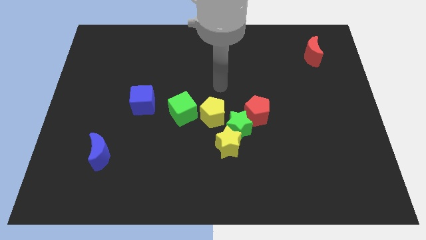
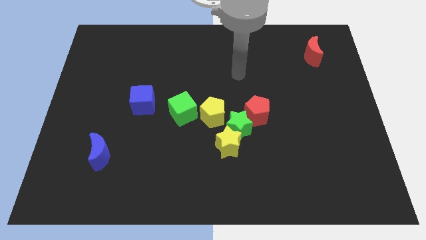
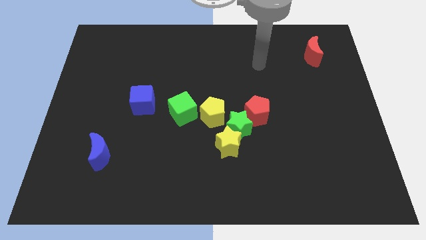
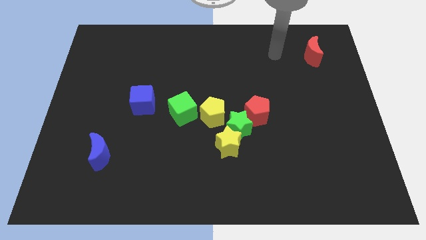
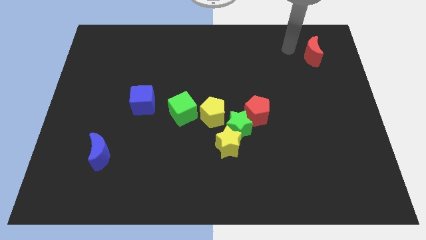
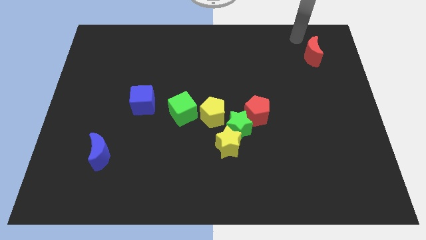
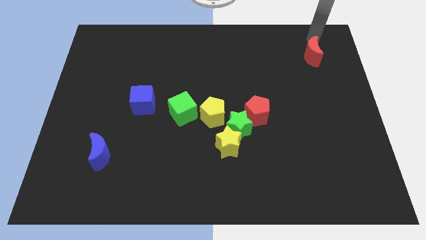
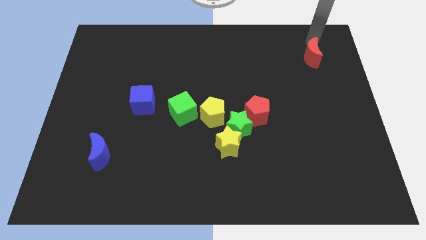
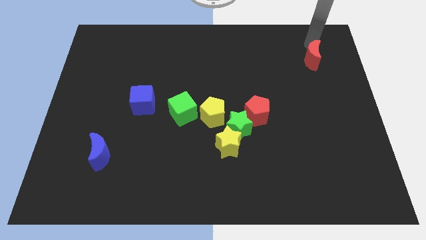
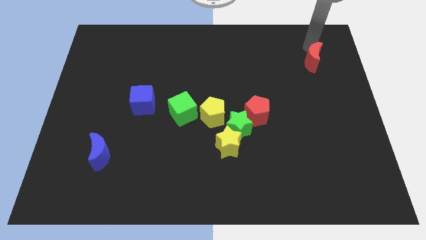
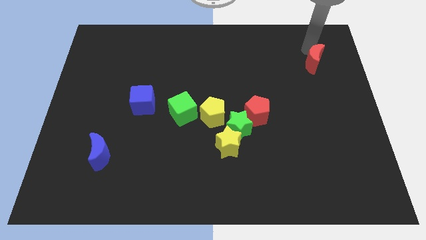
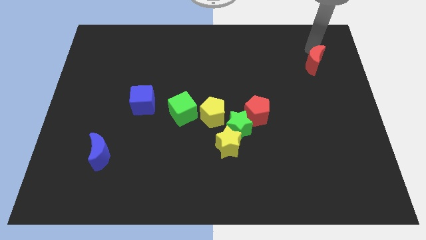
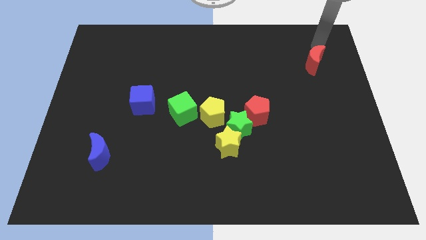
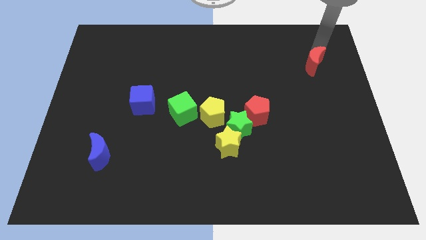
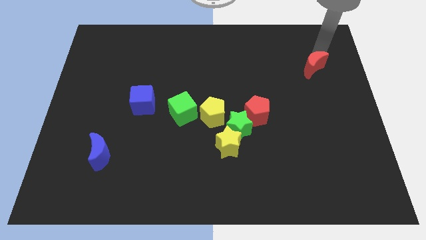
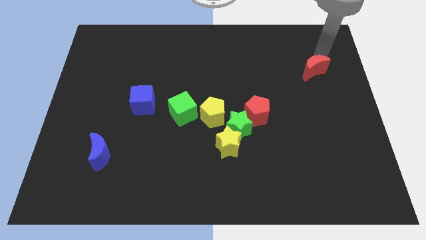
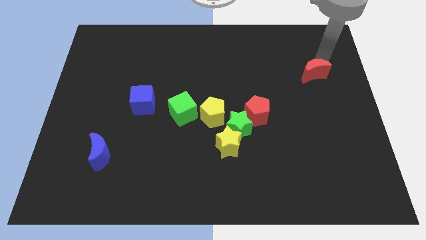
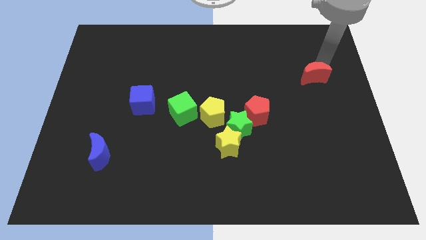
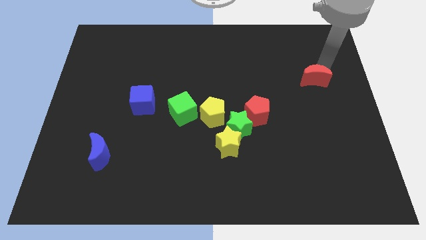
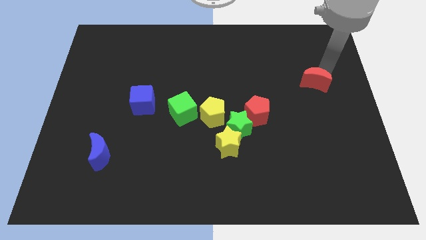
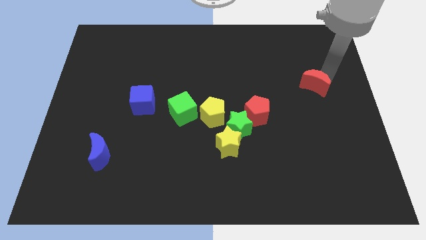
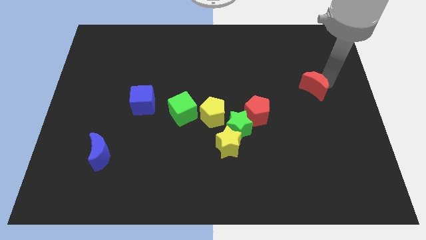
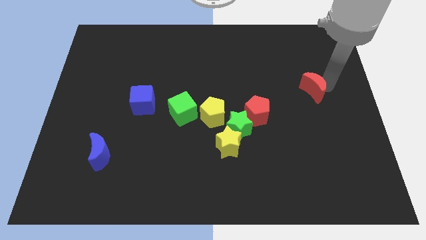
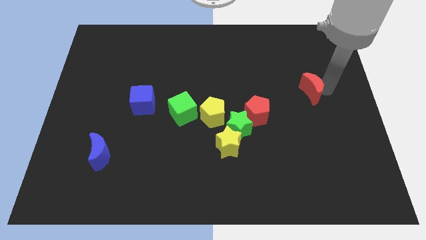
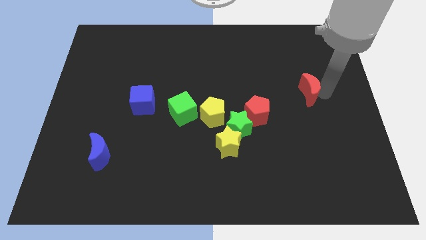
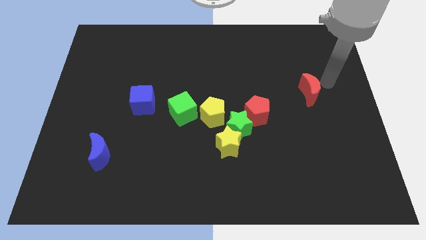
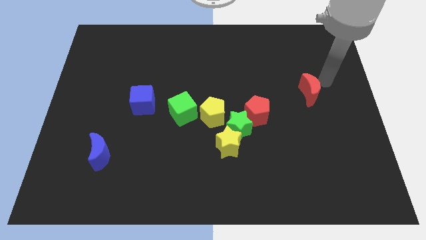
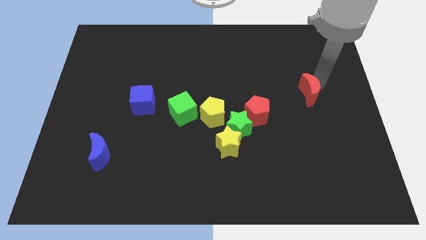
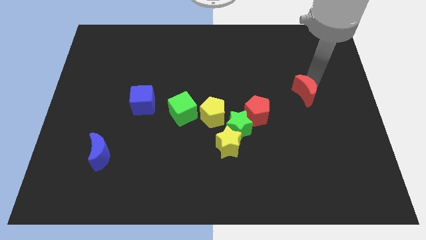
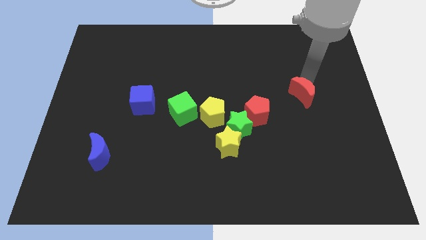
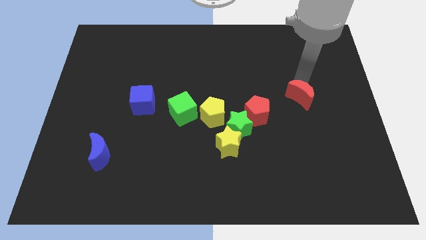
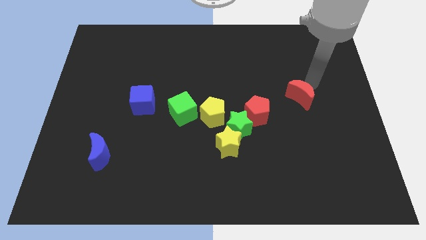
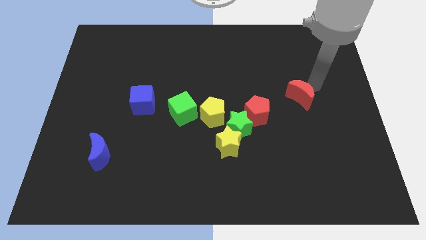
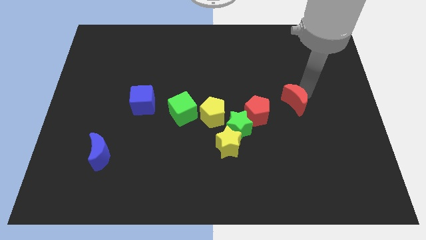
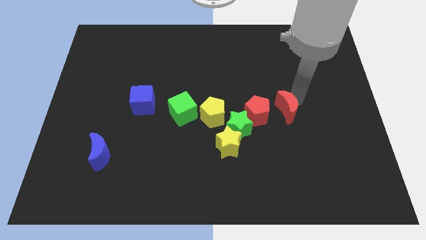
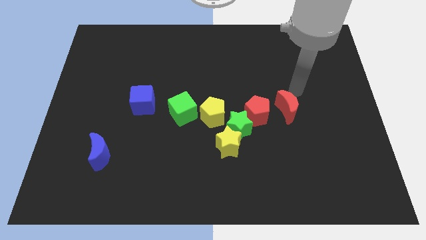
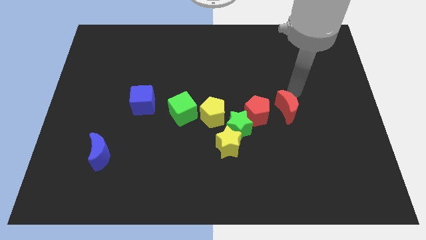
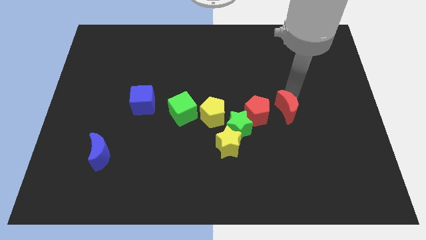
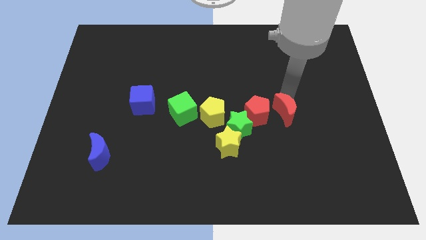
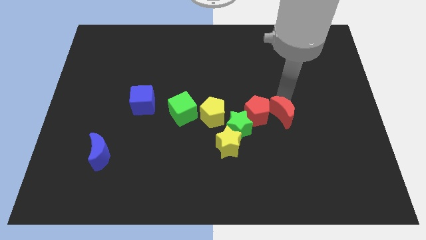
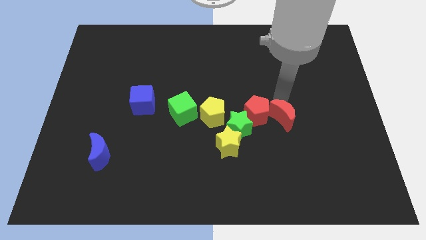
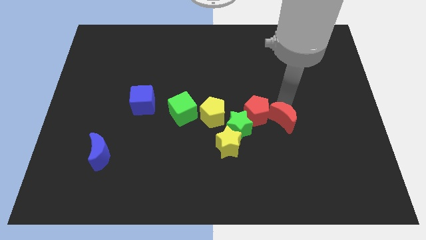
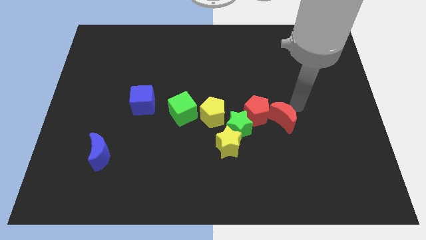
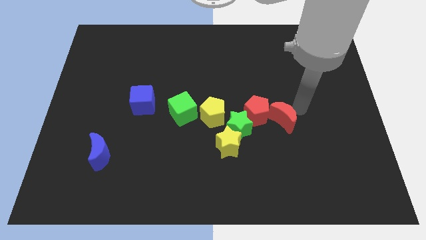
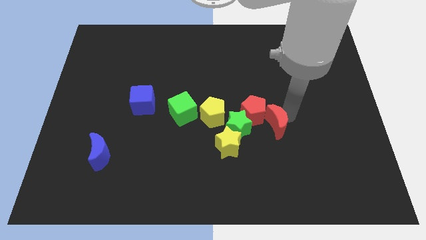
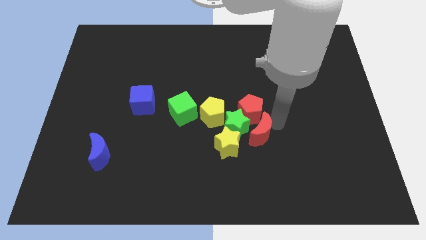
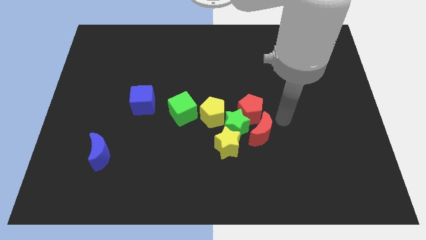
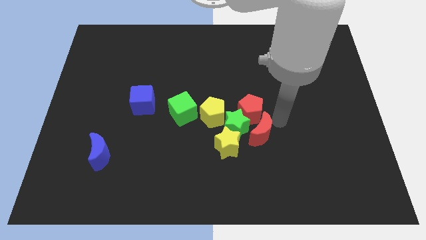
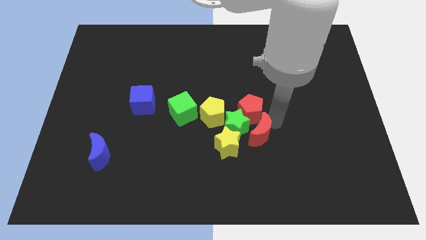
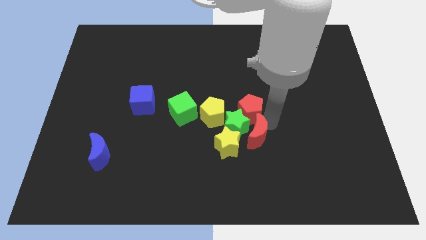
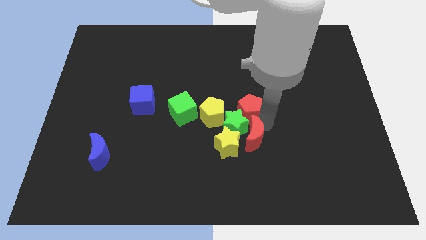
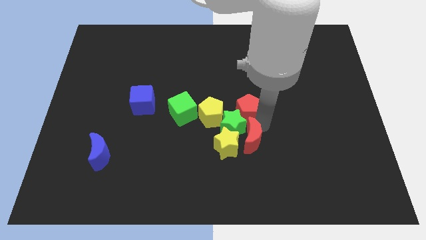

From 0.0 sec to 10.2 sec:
move the red moon next to the yellow star

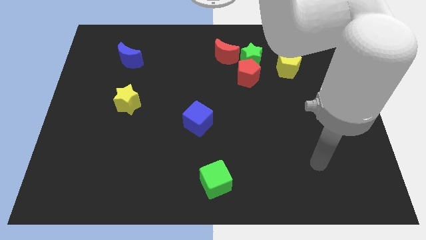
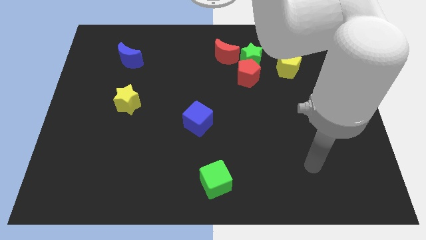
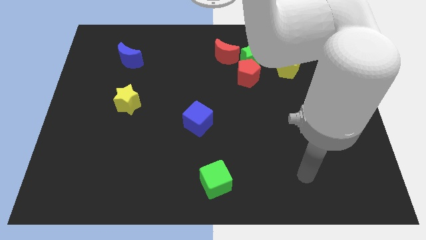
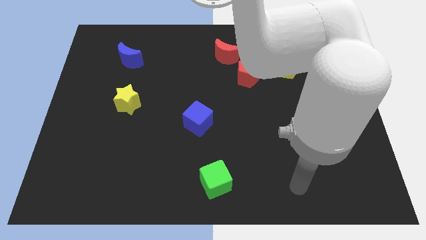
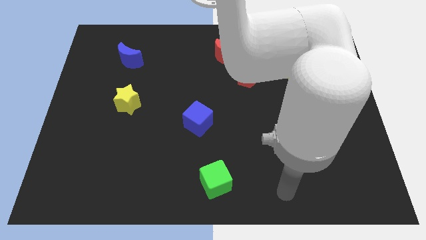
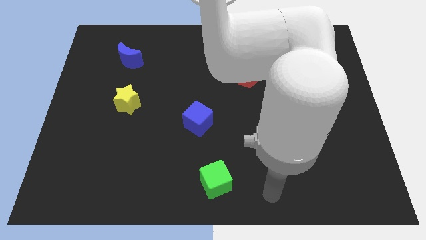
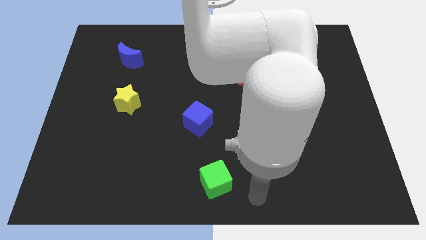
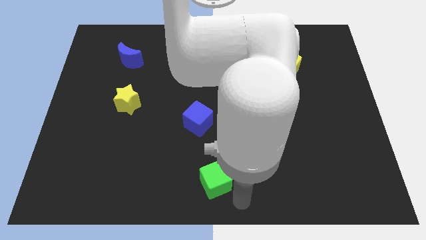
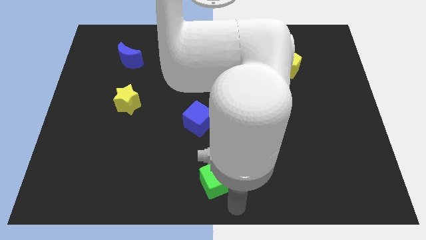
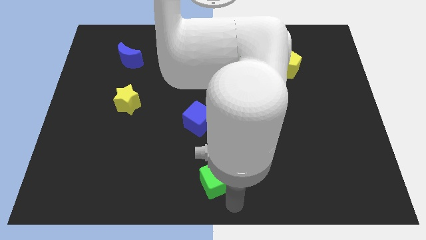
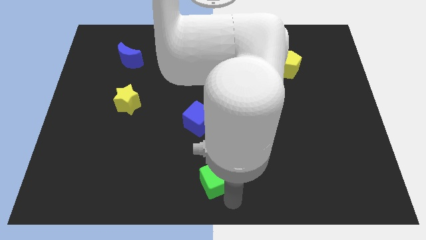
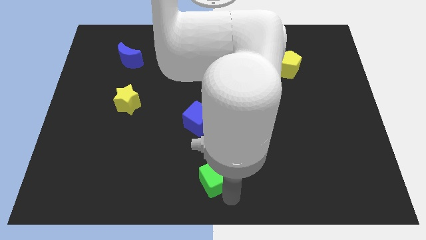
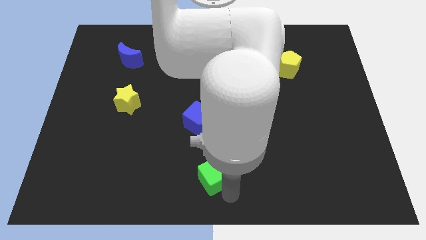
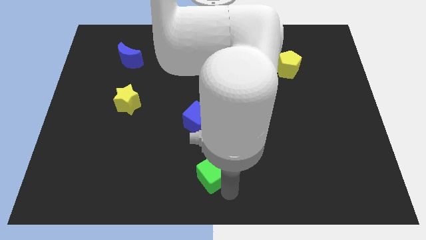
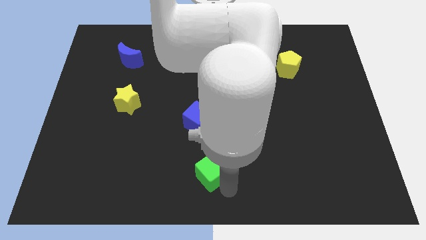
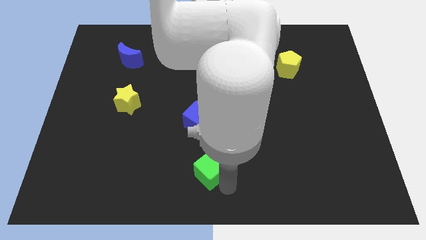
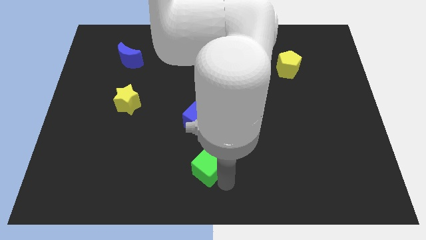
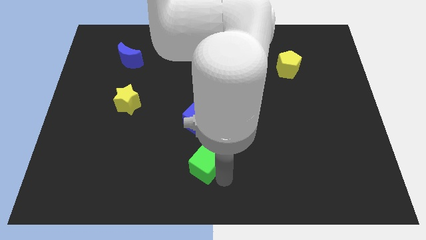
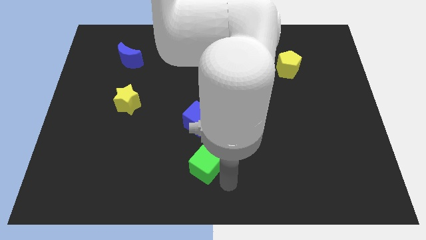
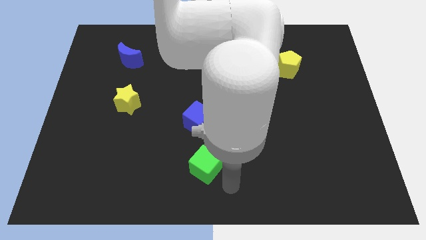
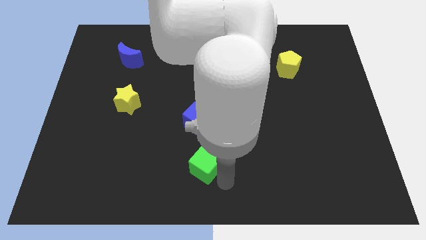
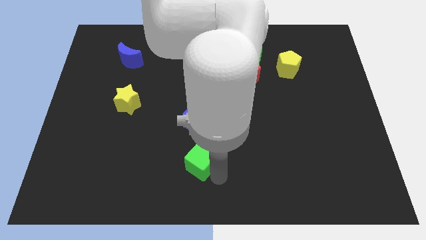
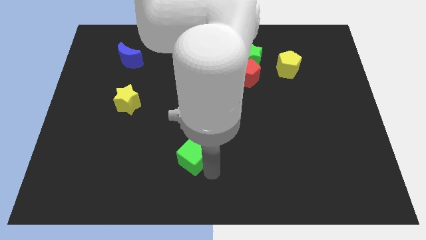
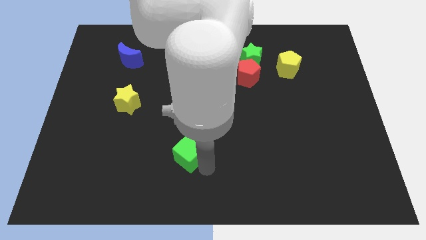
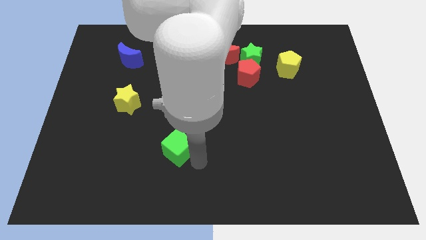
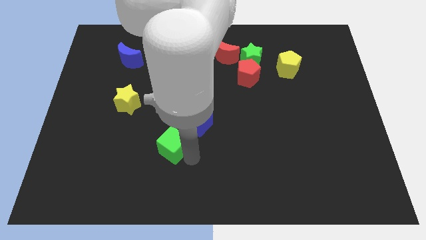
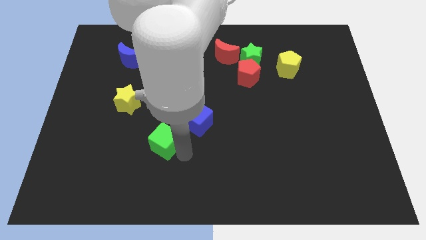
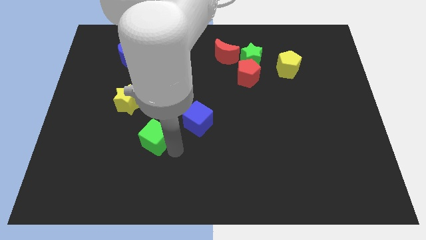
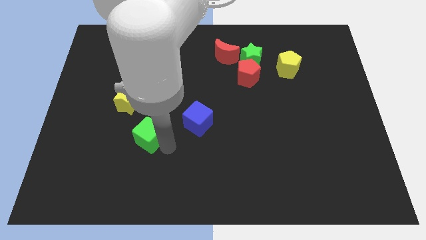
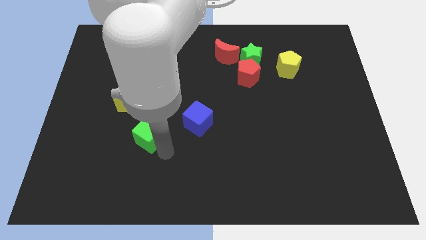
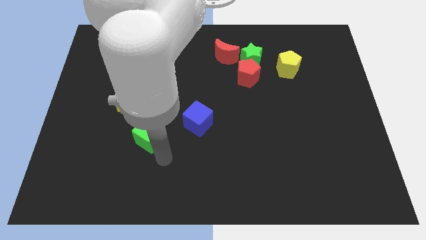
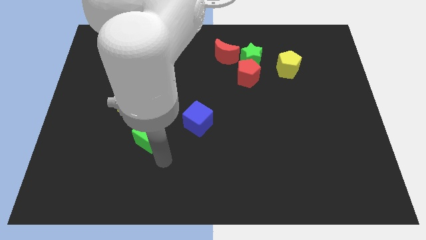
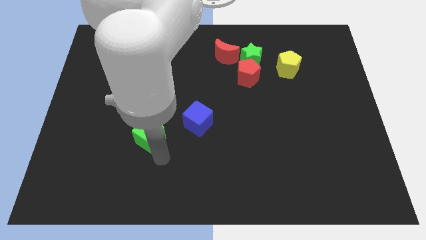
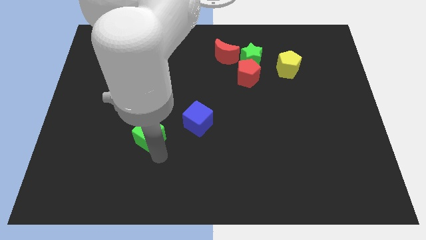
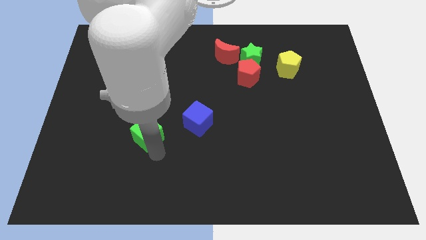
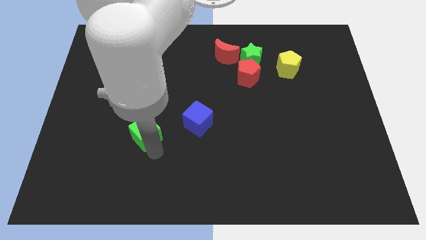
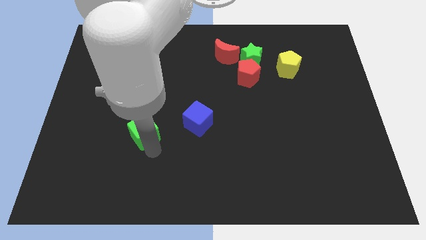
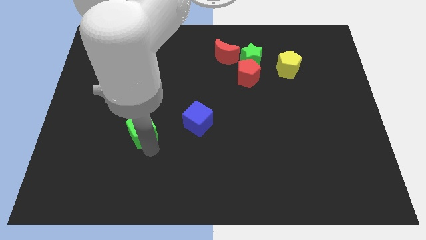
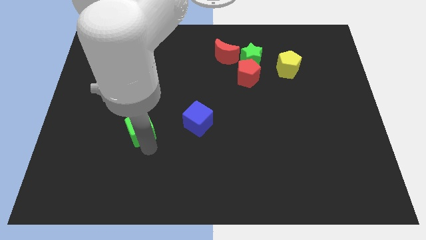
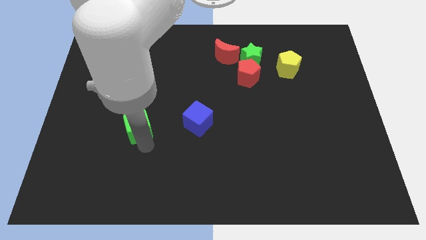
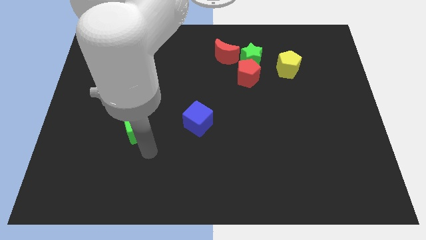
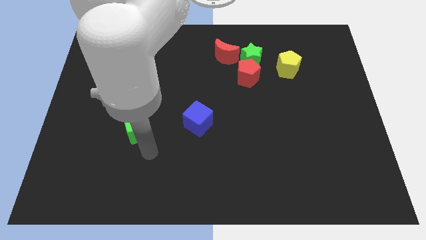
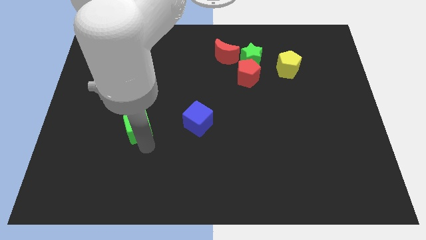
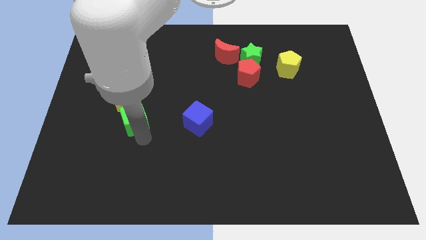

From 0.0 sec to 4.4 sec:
put the green cube to the yellow star
